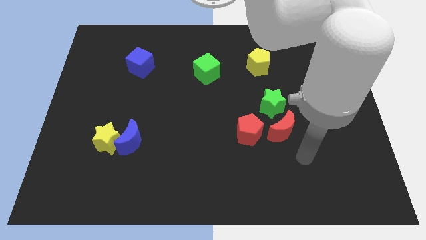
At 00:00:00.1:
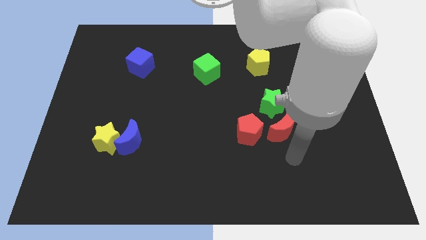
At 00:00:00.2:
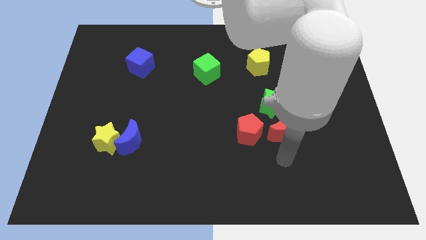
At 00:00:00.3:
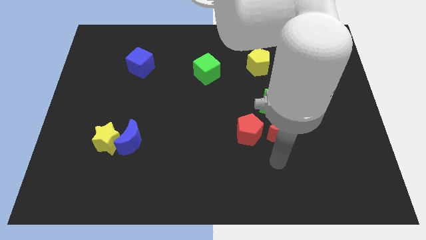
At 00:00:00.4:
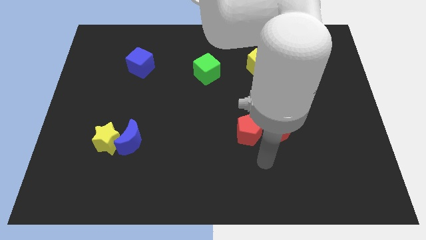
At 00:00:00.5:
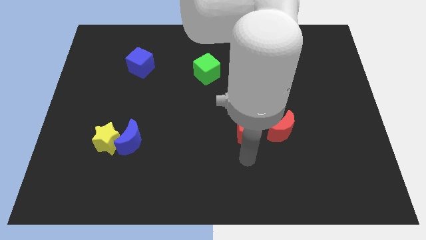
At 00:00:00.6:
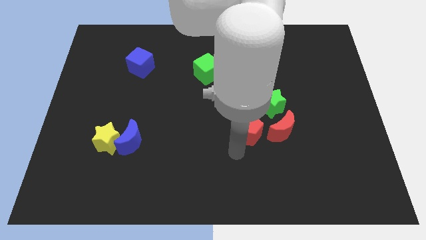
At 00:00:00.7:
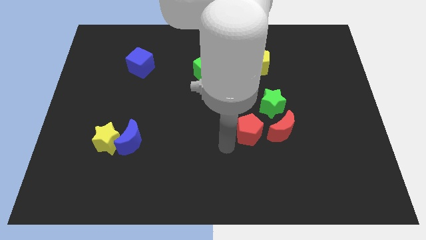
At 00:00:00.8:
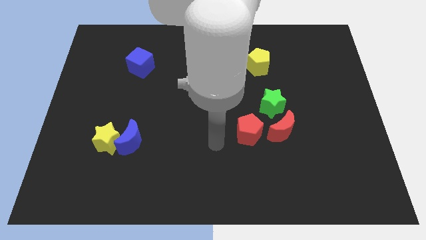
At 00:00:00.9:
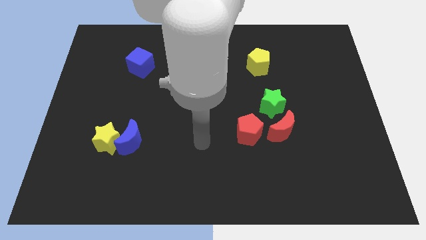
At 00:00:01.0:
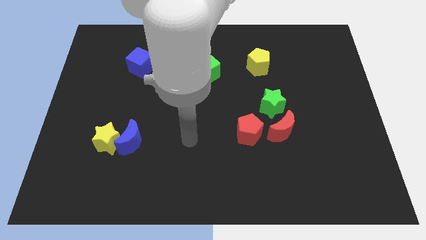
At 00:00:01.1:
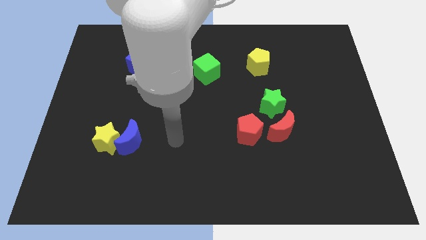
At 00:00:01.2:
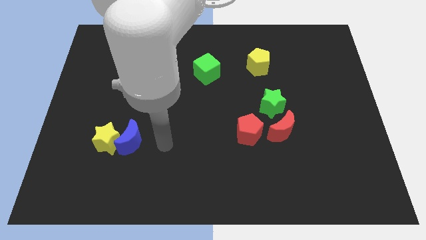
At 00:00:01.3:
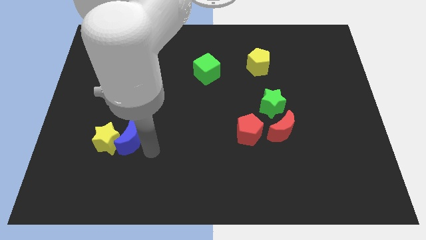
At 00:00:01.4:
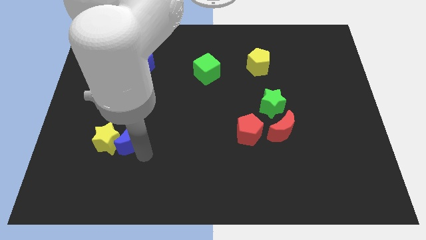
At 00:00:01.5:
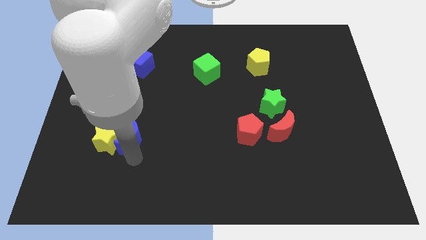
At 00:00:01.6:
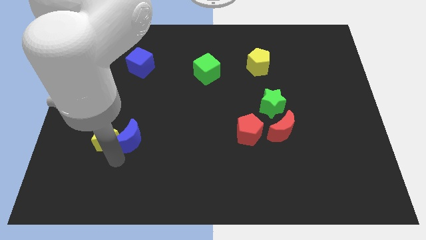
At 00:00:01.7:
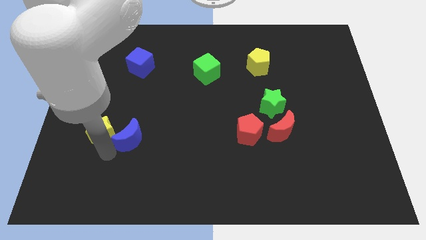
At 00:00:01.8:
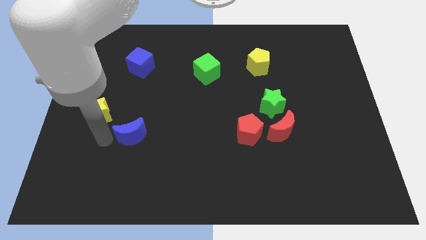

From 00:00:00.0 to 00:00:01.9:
move the blue moon away from the yellow star

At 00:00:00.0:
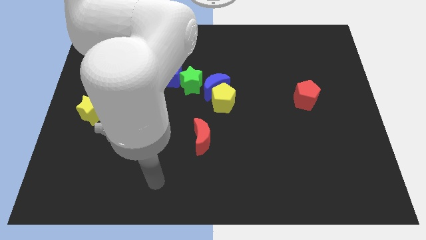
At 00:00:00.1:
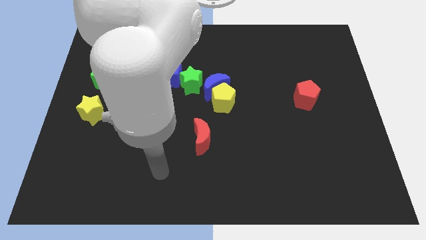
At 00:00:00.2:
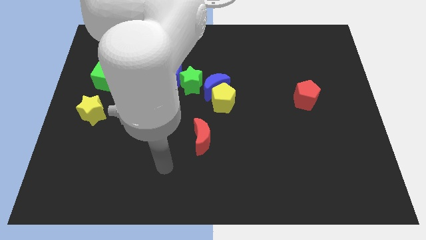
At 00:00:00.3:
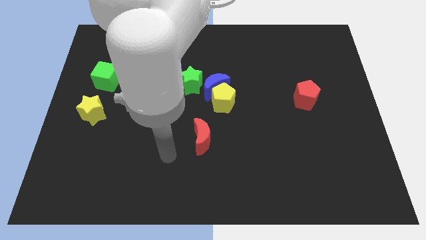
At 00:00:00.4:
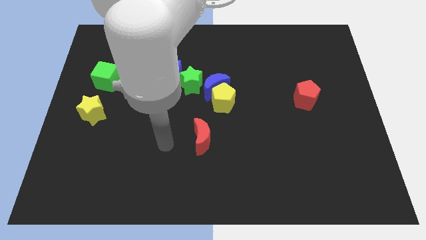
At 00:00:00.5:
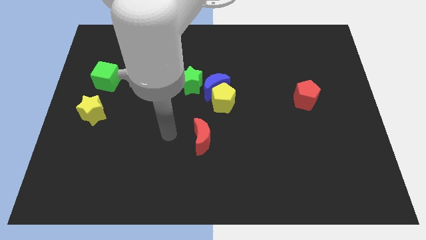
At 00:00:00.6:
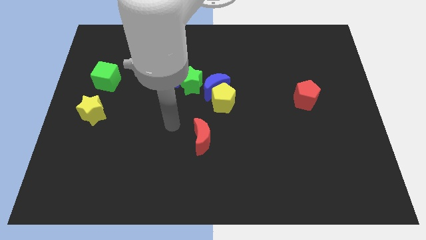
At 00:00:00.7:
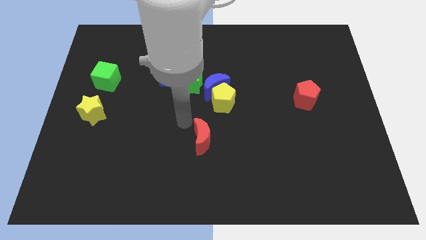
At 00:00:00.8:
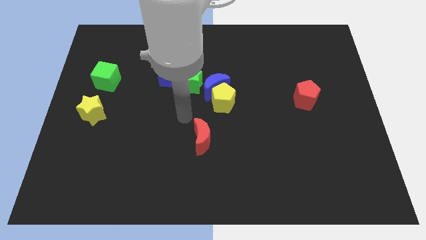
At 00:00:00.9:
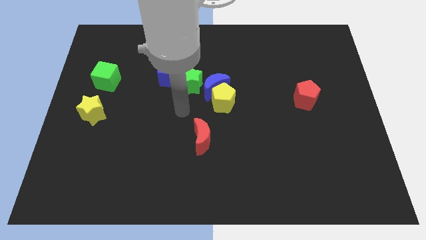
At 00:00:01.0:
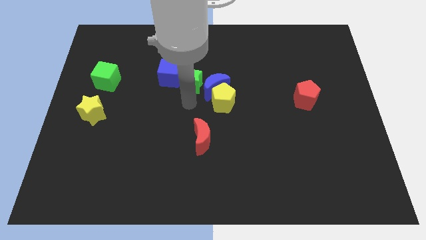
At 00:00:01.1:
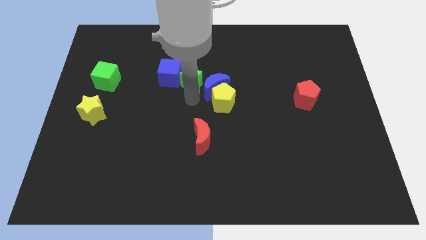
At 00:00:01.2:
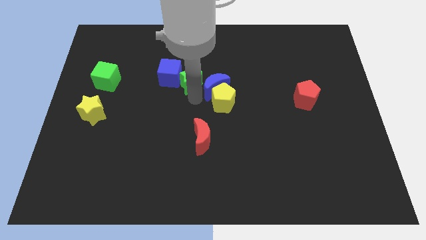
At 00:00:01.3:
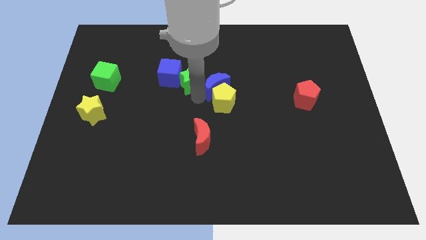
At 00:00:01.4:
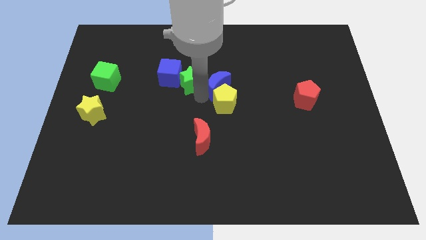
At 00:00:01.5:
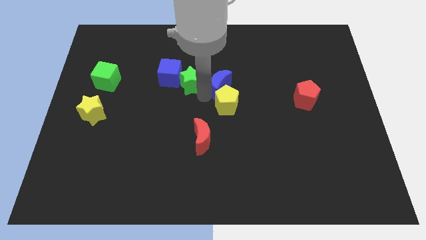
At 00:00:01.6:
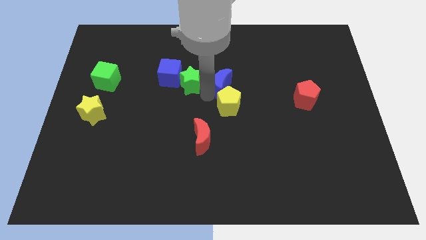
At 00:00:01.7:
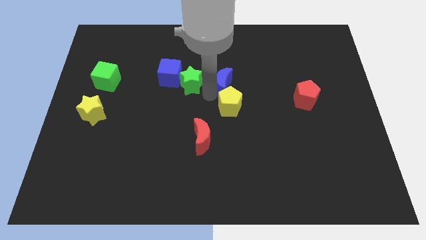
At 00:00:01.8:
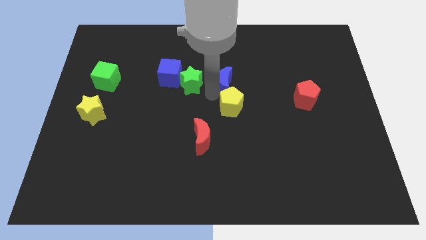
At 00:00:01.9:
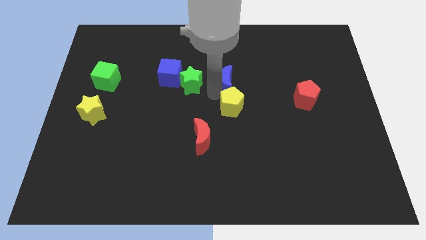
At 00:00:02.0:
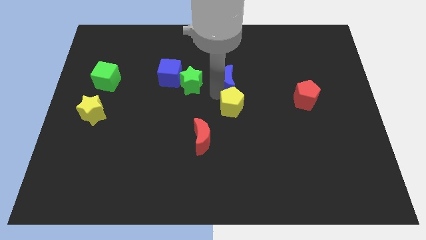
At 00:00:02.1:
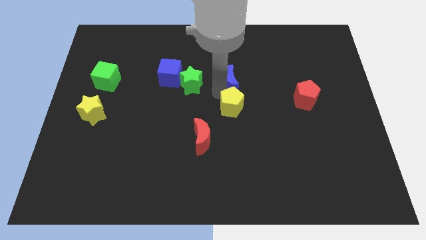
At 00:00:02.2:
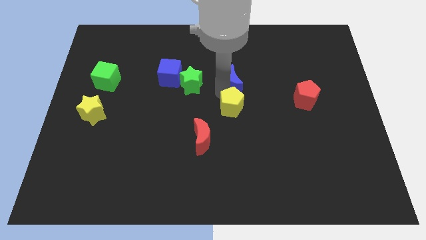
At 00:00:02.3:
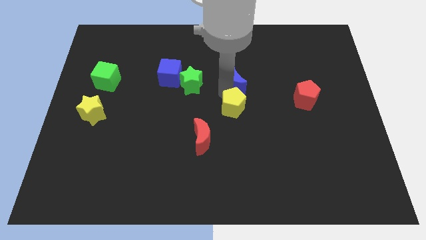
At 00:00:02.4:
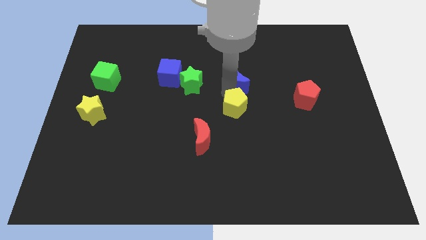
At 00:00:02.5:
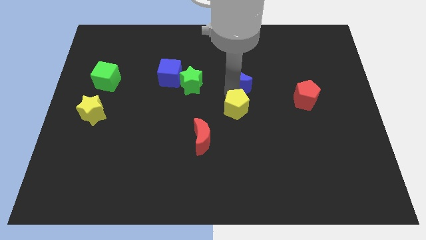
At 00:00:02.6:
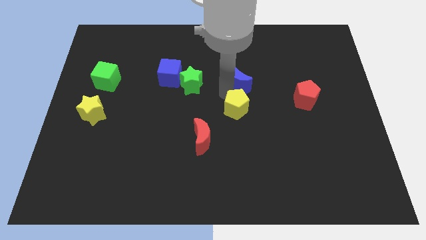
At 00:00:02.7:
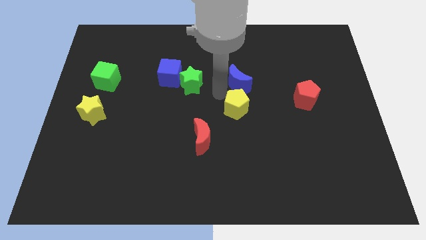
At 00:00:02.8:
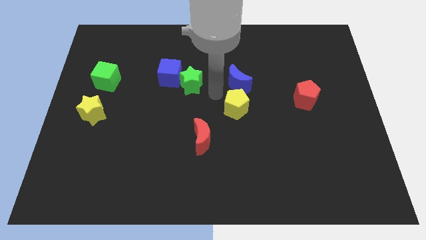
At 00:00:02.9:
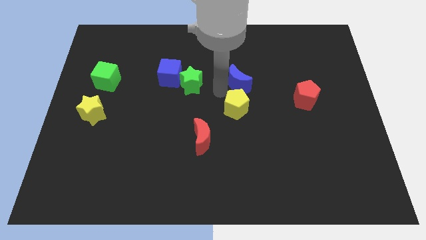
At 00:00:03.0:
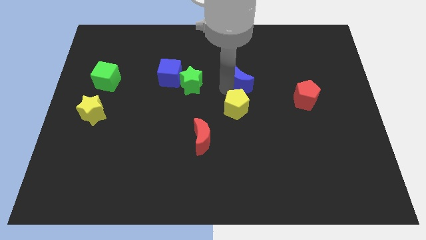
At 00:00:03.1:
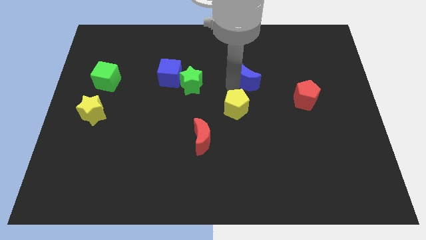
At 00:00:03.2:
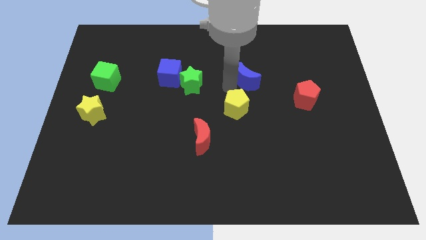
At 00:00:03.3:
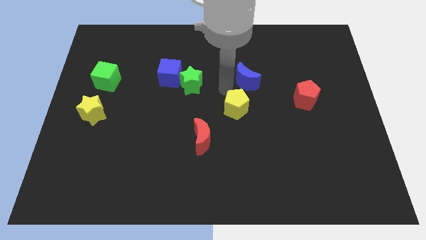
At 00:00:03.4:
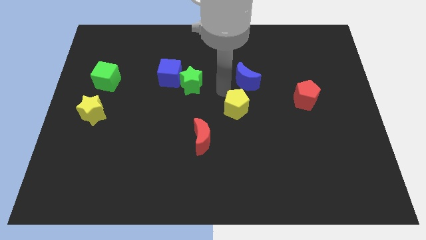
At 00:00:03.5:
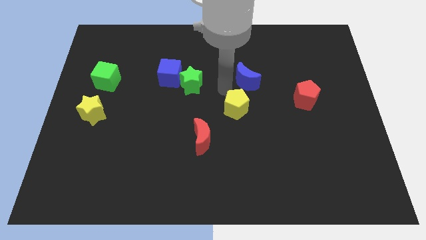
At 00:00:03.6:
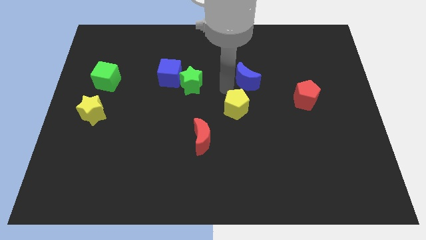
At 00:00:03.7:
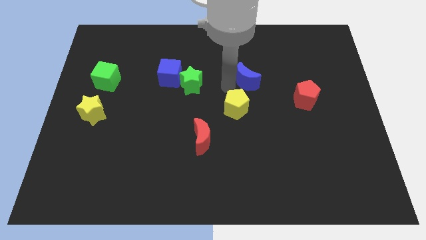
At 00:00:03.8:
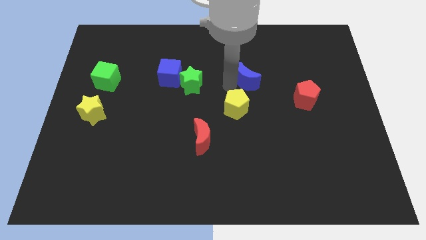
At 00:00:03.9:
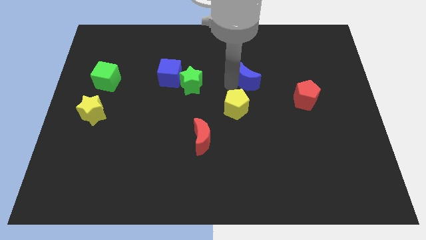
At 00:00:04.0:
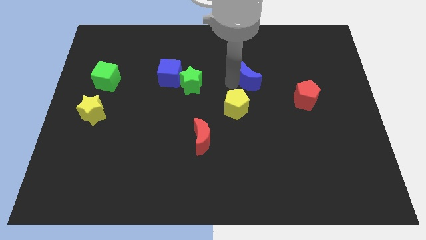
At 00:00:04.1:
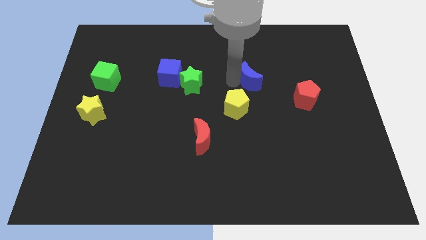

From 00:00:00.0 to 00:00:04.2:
separate the blue moon from the yellow pentagon and green star

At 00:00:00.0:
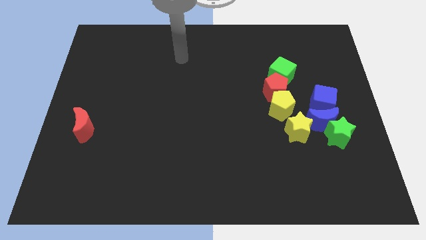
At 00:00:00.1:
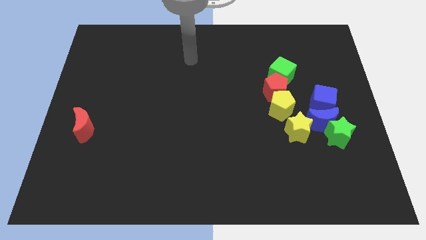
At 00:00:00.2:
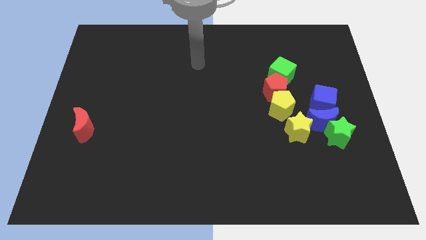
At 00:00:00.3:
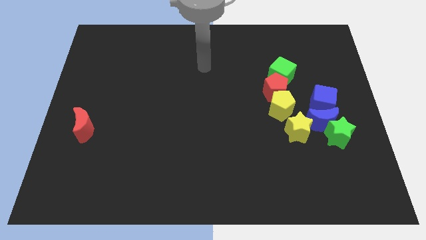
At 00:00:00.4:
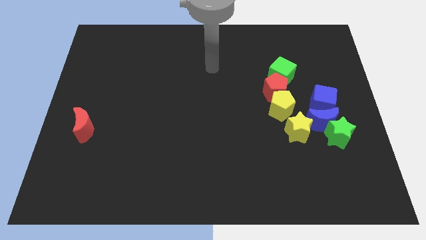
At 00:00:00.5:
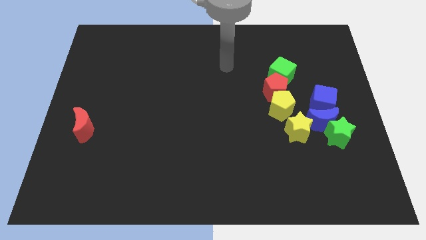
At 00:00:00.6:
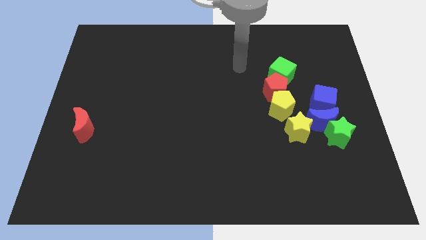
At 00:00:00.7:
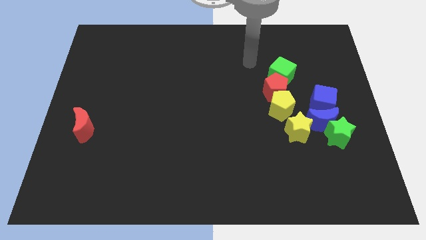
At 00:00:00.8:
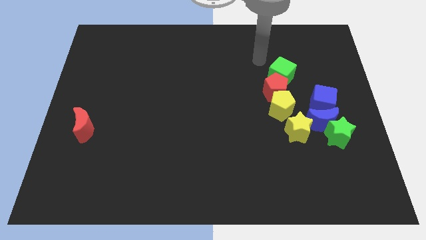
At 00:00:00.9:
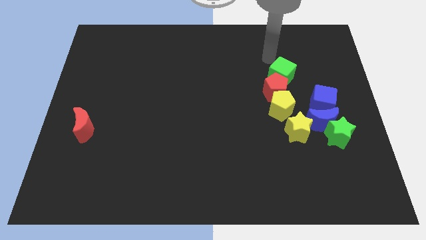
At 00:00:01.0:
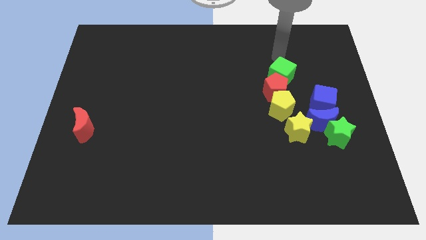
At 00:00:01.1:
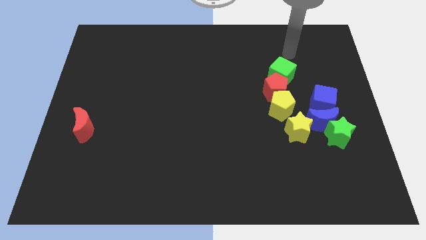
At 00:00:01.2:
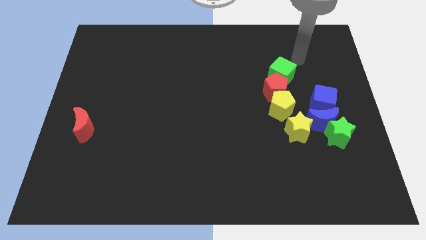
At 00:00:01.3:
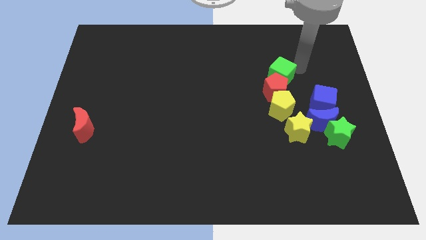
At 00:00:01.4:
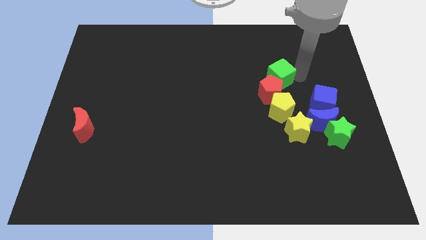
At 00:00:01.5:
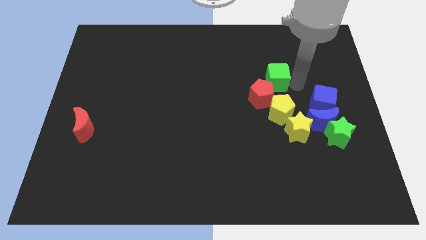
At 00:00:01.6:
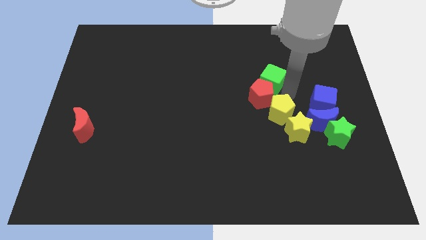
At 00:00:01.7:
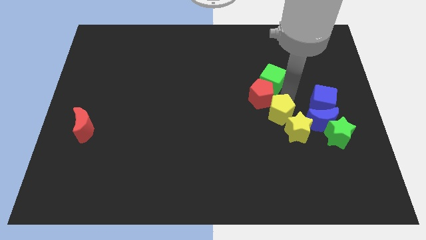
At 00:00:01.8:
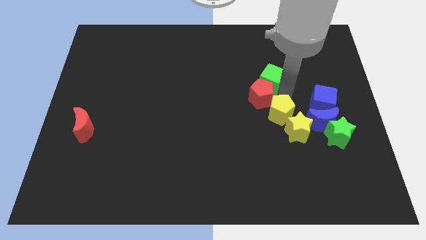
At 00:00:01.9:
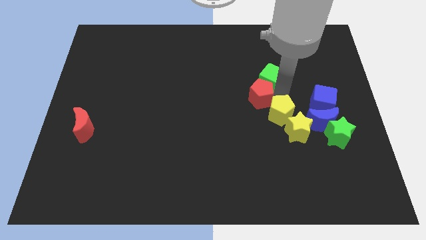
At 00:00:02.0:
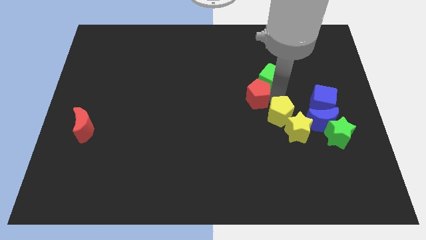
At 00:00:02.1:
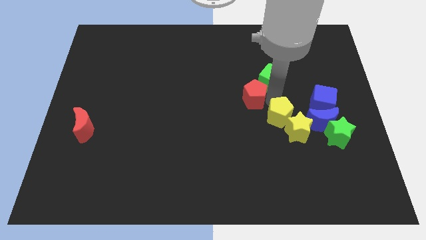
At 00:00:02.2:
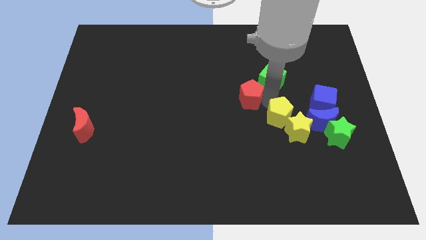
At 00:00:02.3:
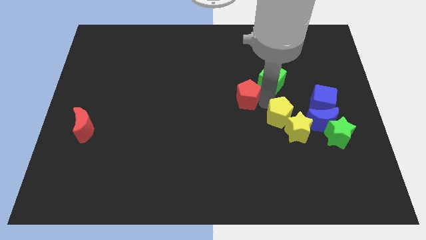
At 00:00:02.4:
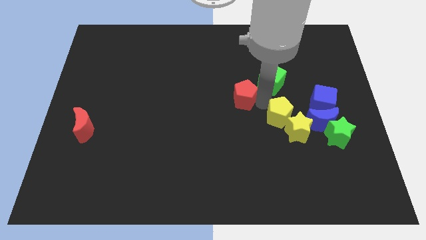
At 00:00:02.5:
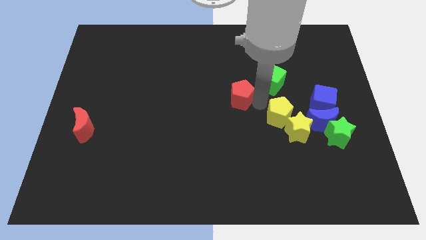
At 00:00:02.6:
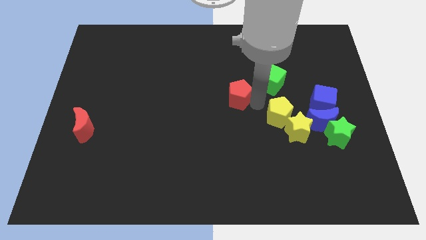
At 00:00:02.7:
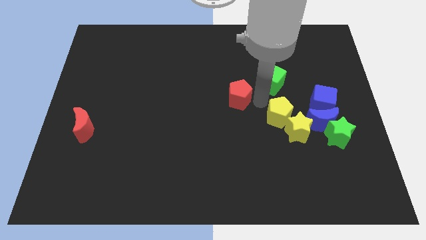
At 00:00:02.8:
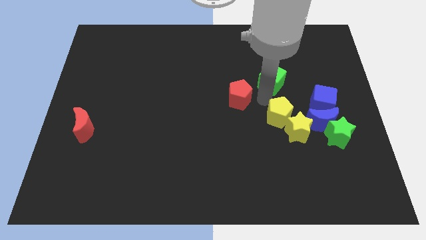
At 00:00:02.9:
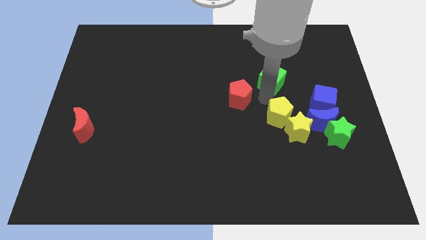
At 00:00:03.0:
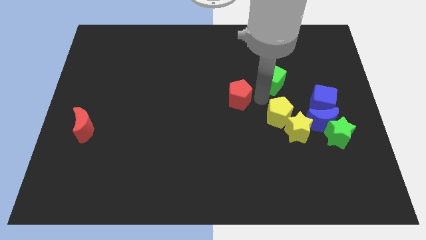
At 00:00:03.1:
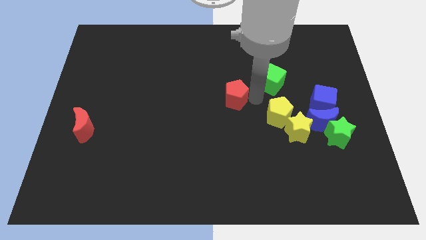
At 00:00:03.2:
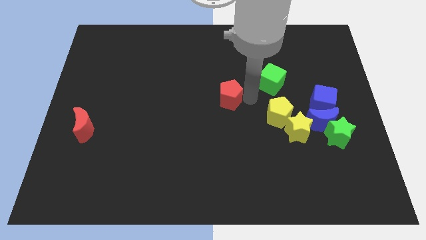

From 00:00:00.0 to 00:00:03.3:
separate the red pentagon from the yellow pentagon and green cube
